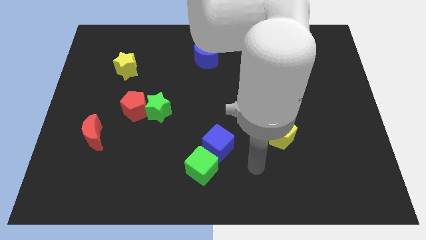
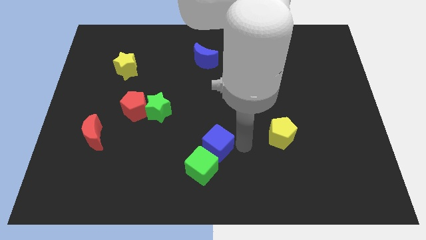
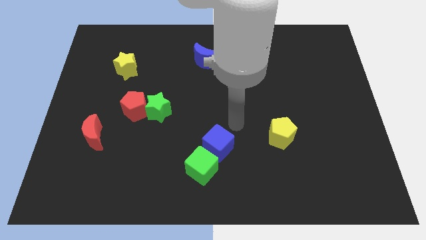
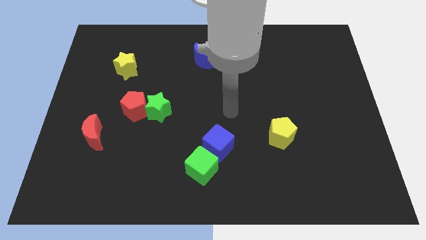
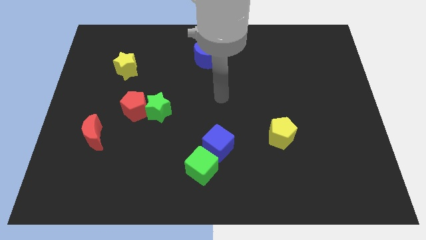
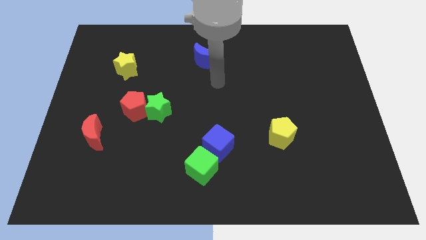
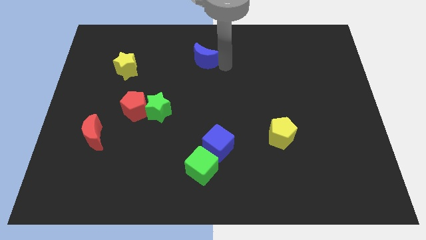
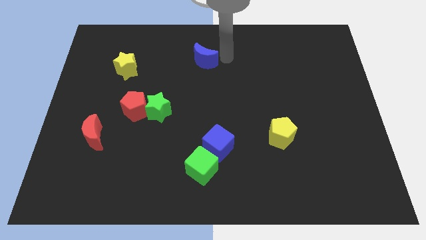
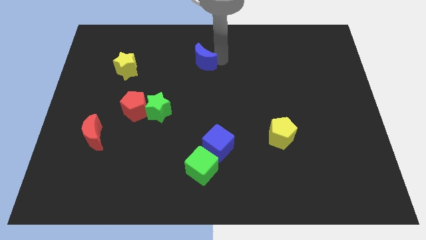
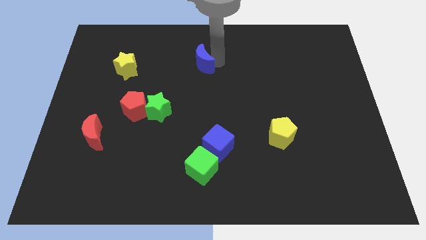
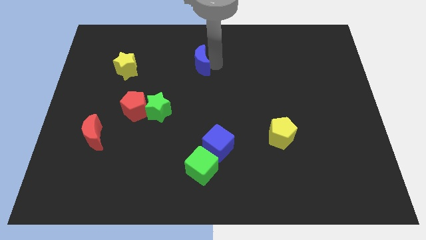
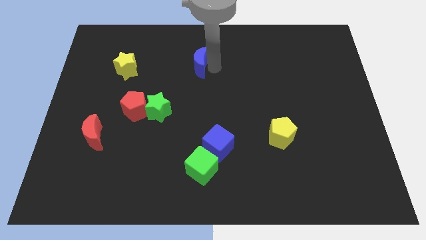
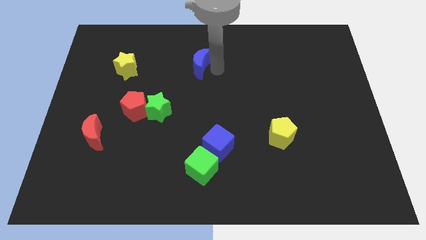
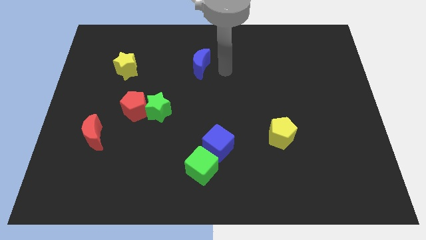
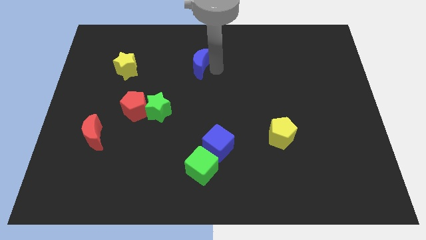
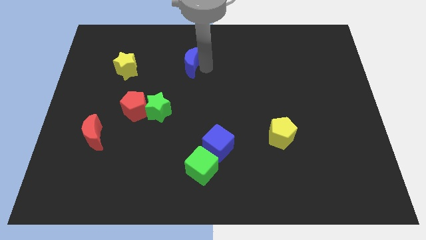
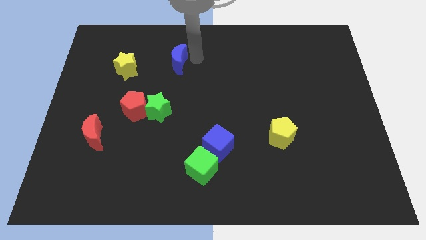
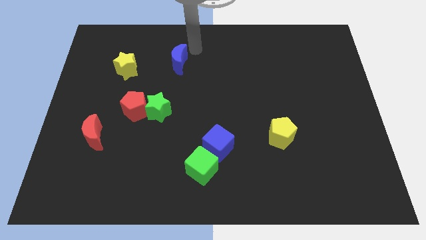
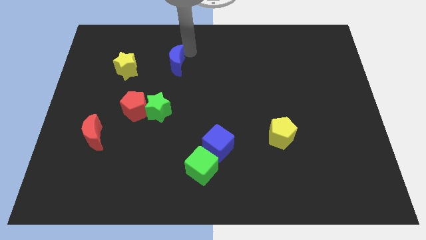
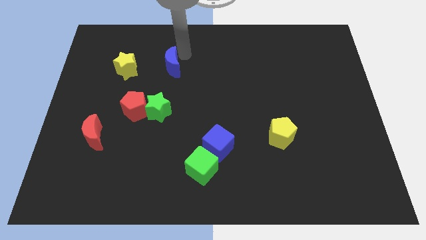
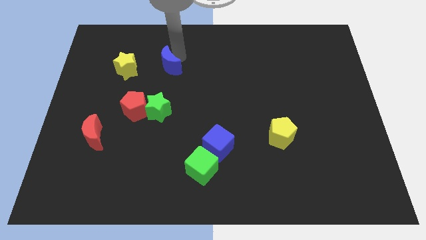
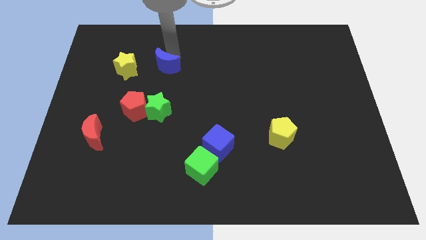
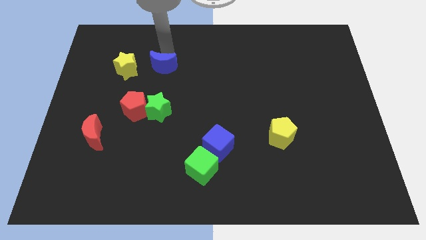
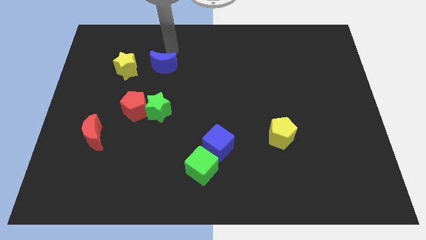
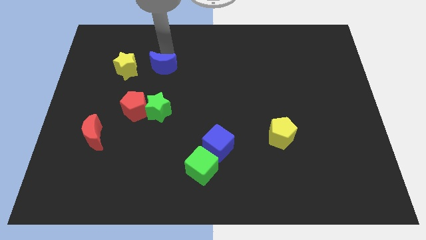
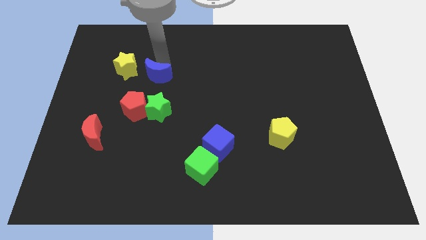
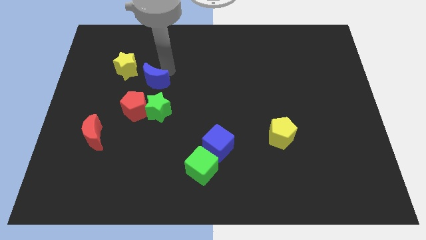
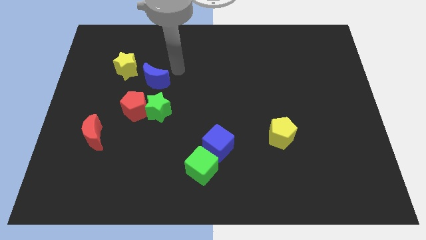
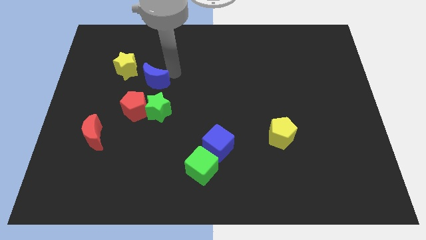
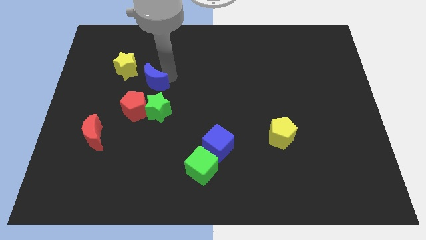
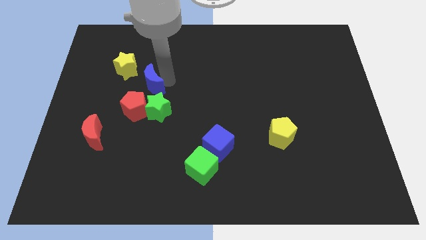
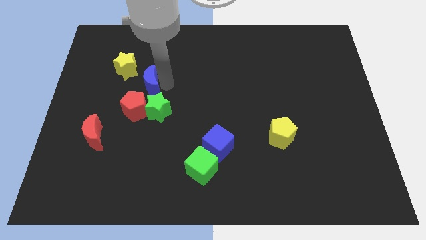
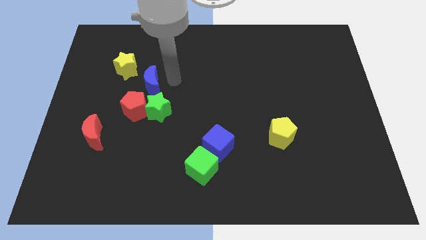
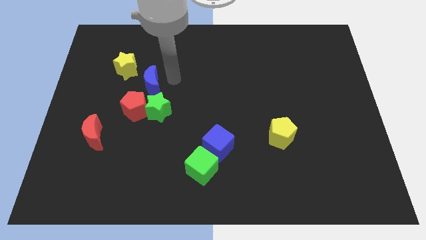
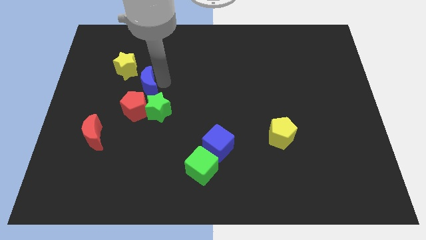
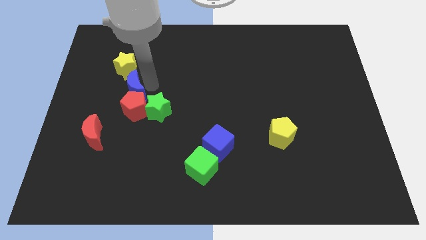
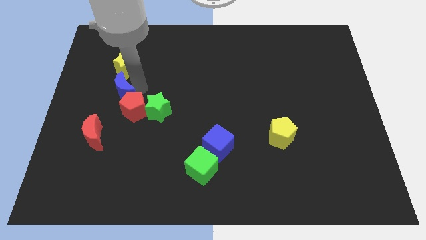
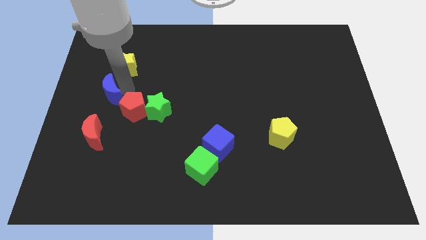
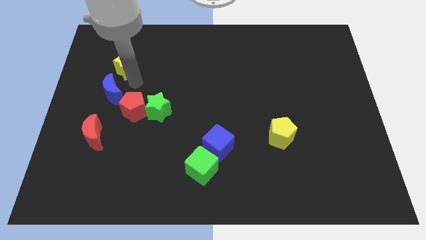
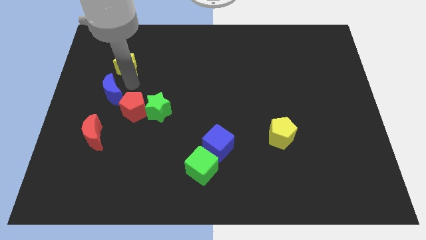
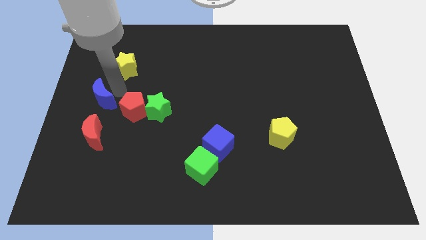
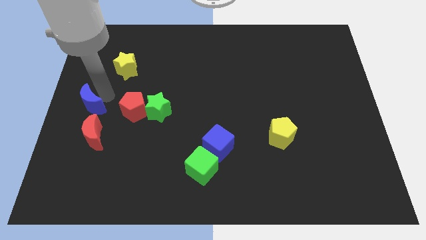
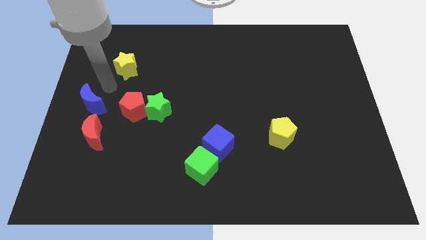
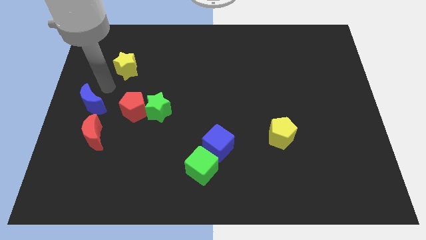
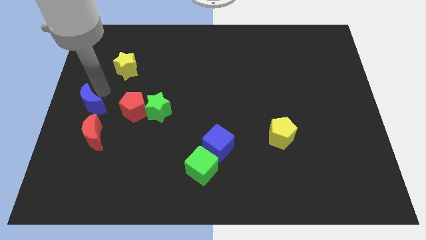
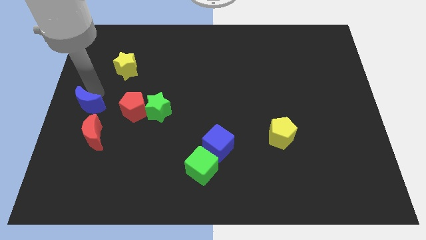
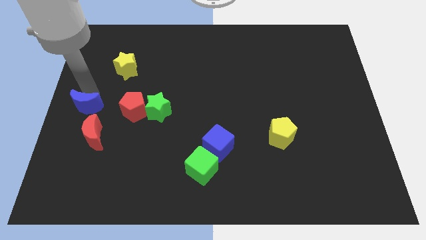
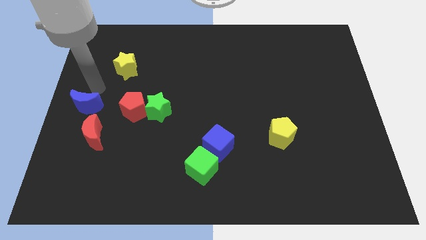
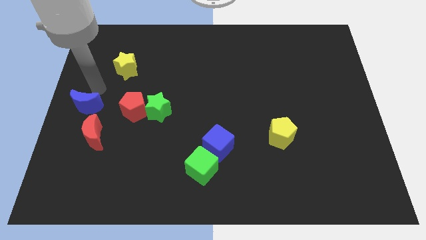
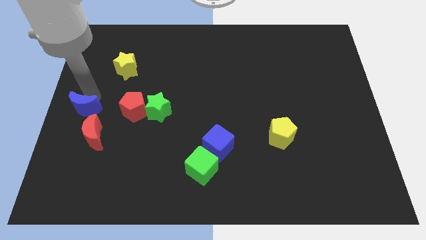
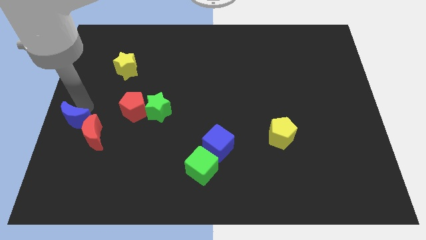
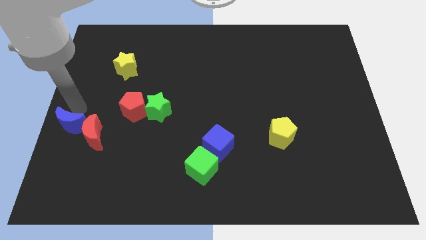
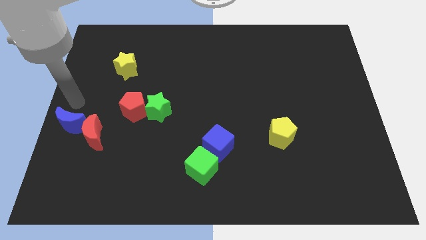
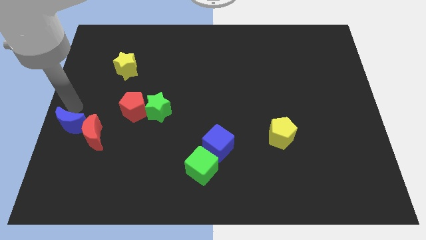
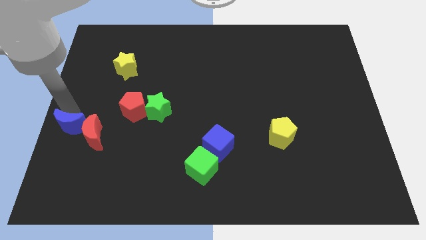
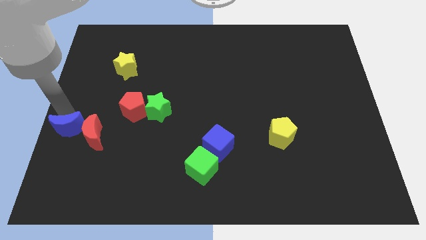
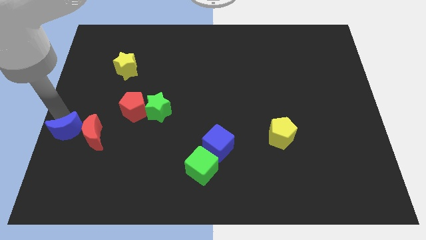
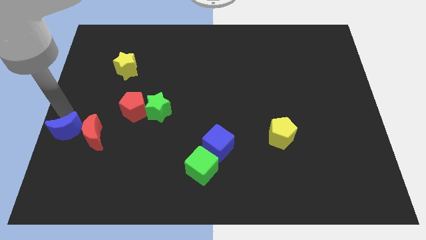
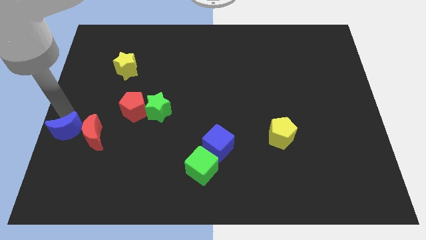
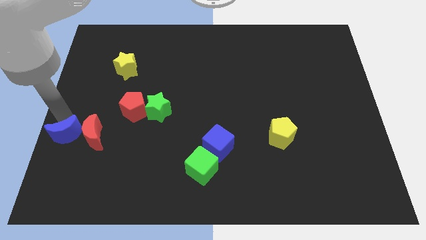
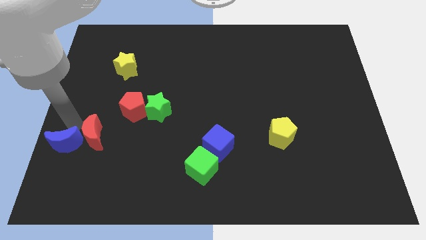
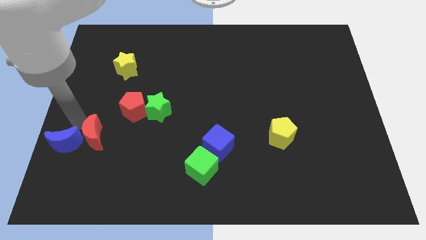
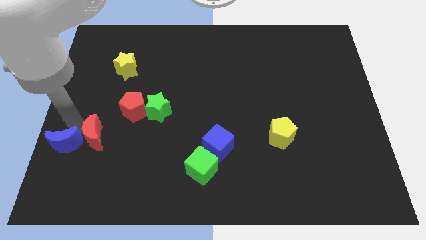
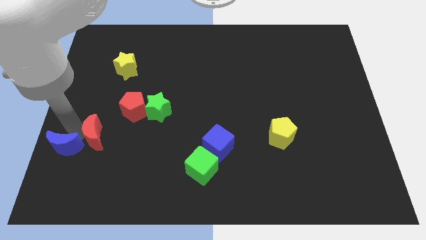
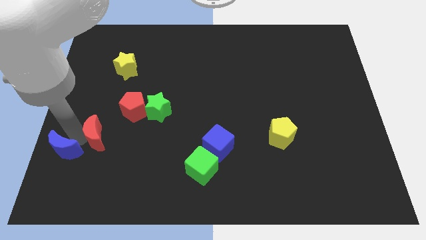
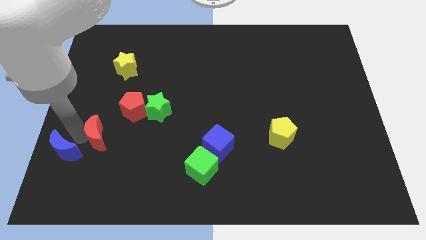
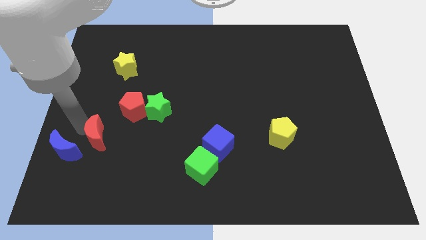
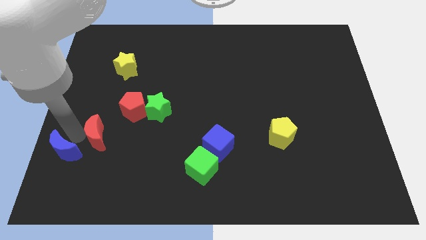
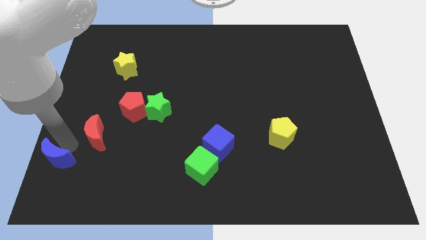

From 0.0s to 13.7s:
put the blue moon to the lower left corner
